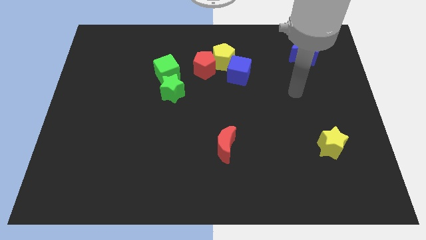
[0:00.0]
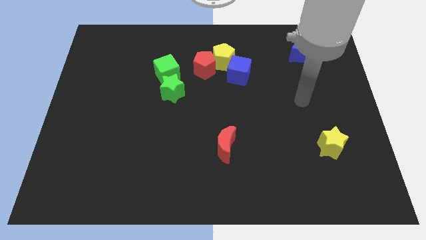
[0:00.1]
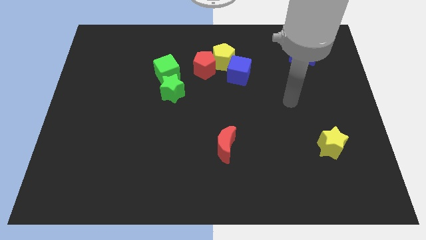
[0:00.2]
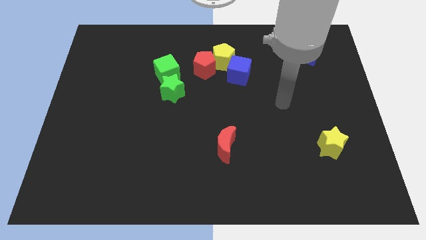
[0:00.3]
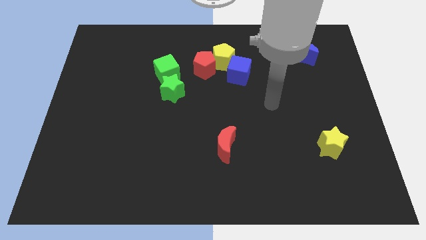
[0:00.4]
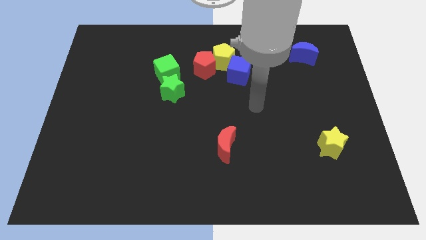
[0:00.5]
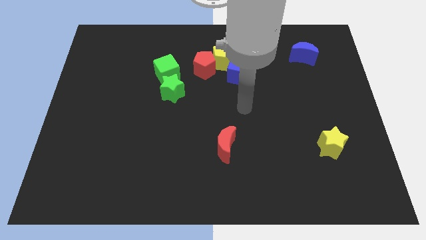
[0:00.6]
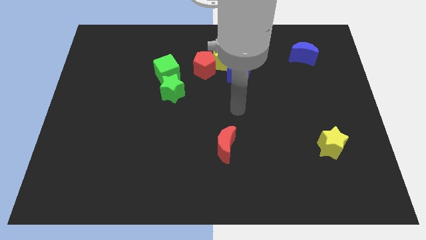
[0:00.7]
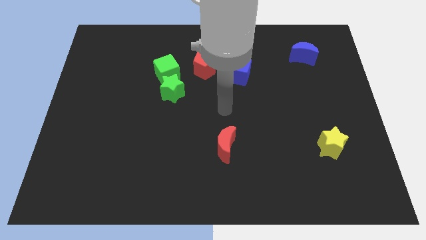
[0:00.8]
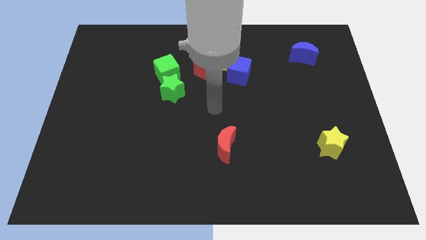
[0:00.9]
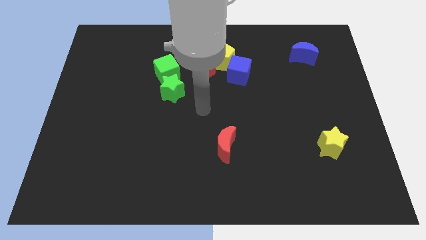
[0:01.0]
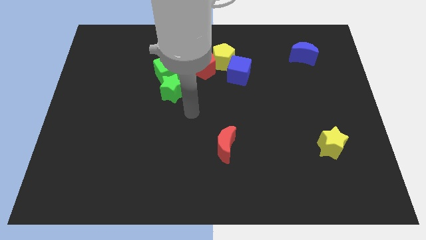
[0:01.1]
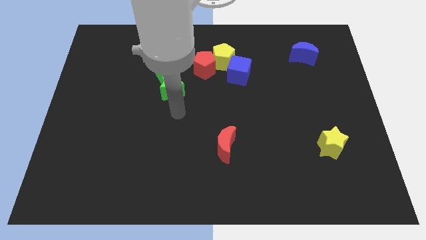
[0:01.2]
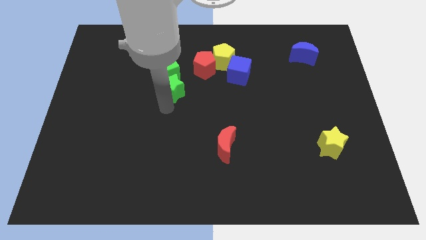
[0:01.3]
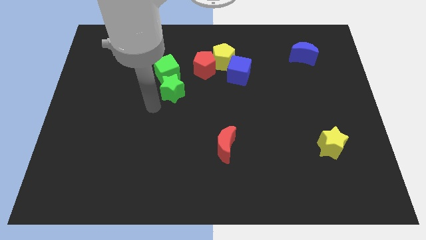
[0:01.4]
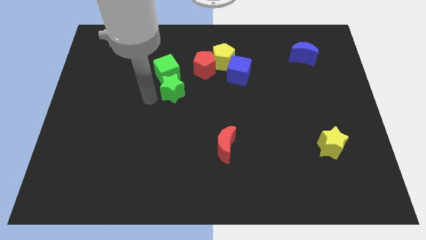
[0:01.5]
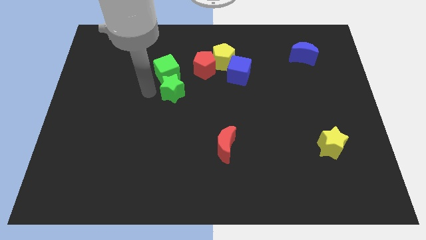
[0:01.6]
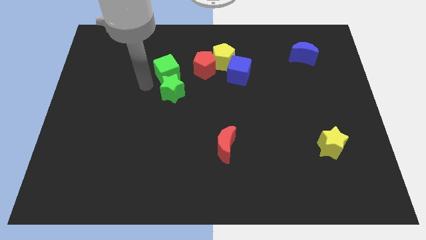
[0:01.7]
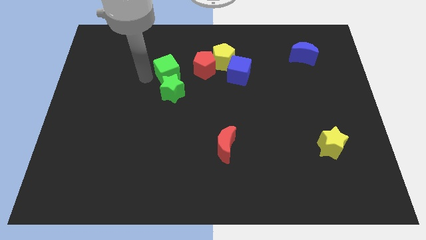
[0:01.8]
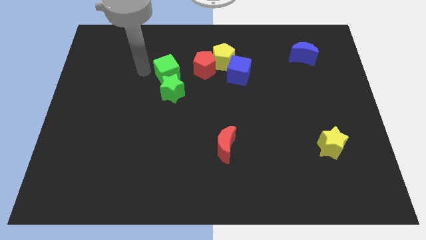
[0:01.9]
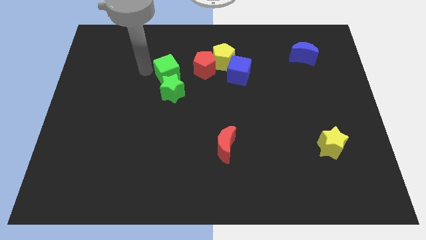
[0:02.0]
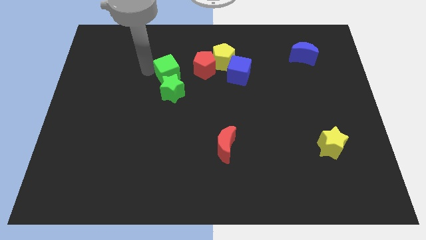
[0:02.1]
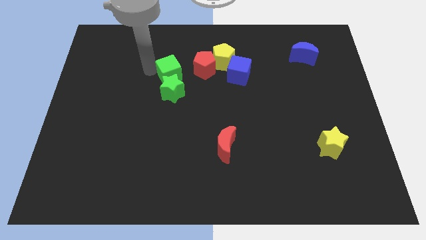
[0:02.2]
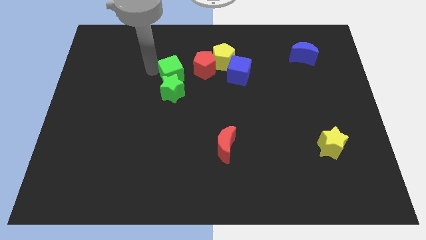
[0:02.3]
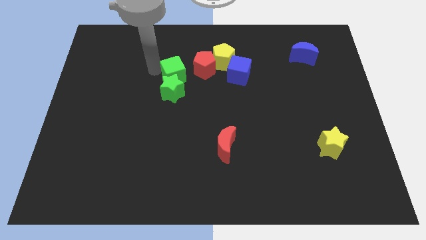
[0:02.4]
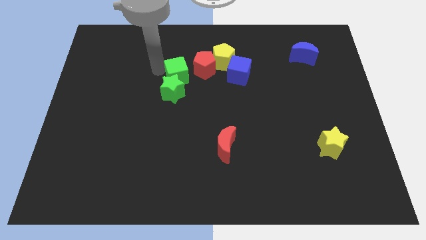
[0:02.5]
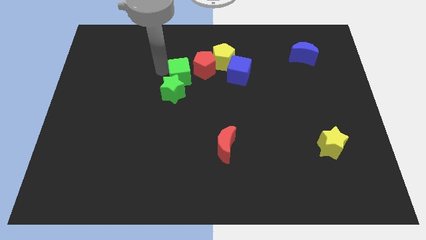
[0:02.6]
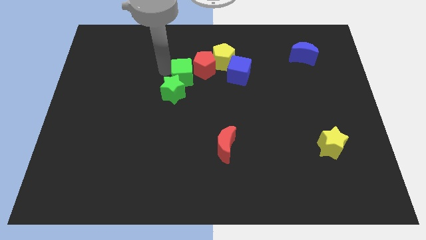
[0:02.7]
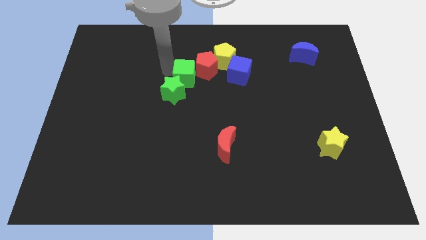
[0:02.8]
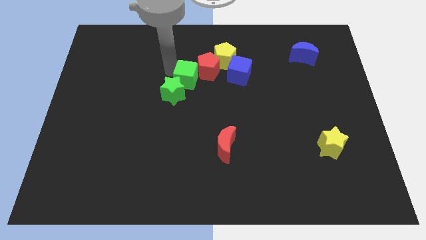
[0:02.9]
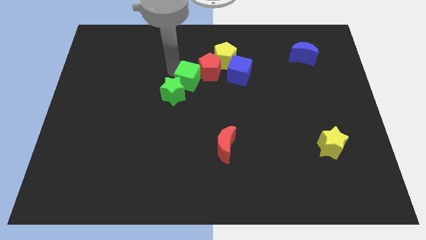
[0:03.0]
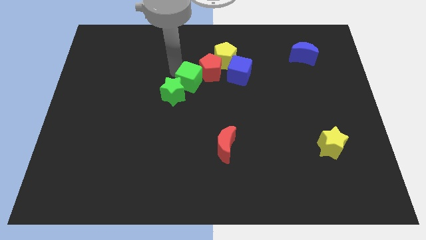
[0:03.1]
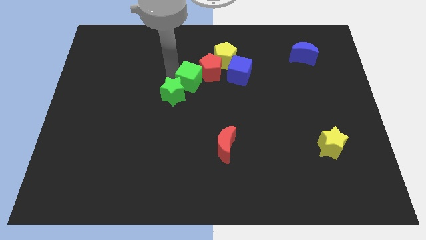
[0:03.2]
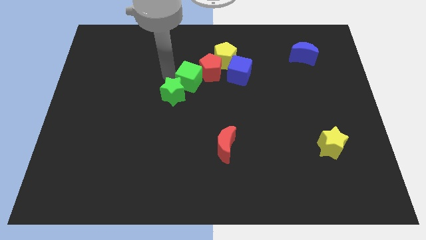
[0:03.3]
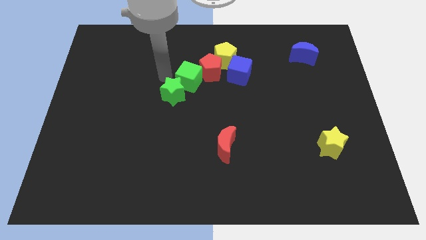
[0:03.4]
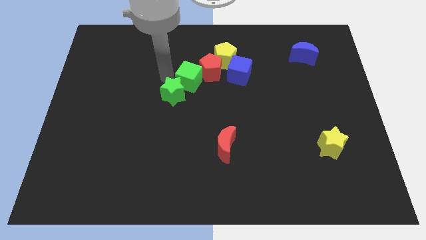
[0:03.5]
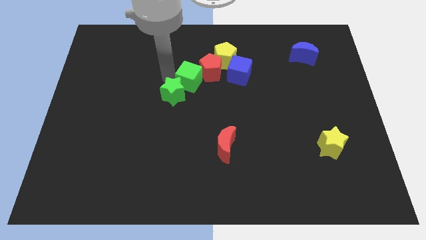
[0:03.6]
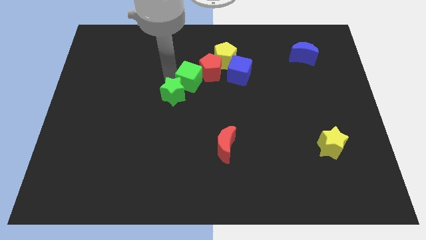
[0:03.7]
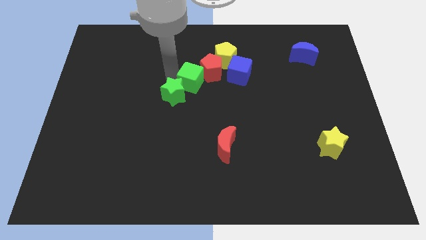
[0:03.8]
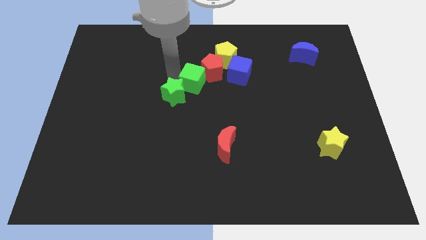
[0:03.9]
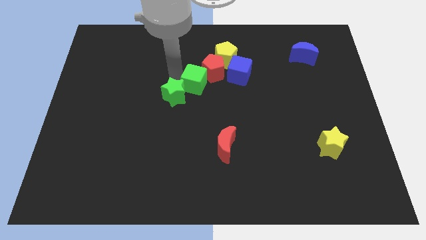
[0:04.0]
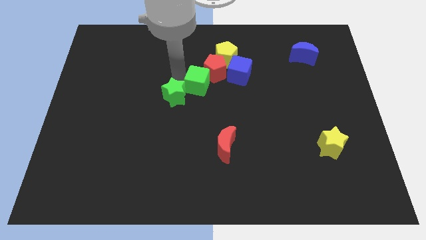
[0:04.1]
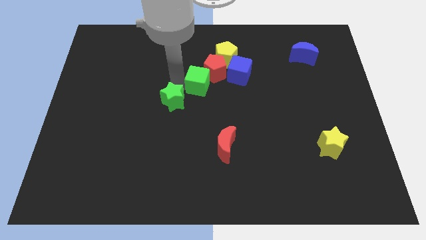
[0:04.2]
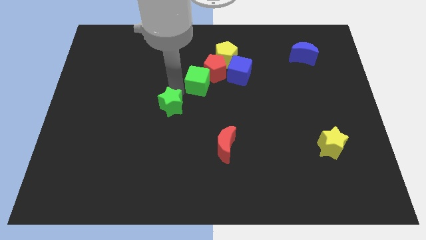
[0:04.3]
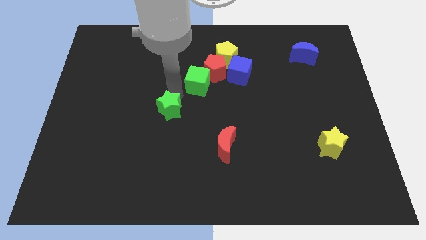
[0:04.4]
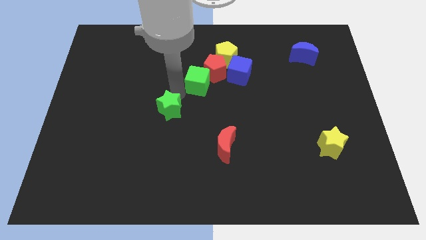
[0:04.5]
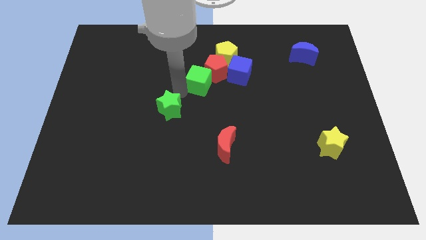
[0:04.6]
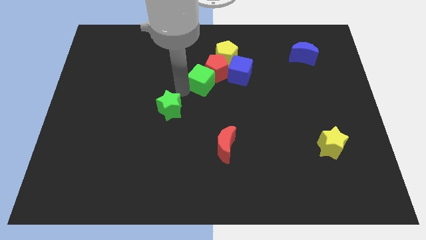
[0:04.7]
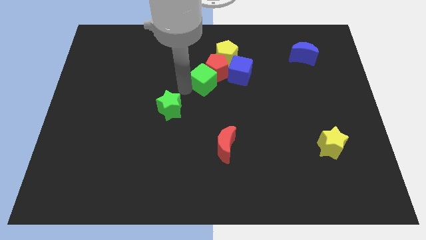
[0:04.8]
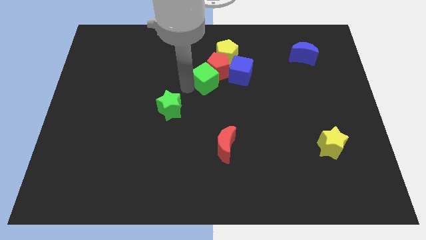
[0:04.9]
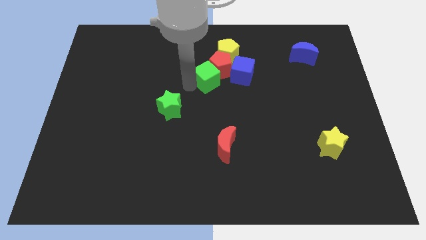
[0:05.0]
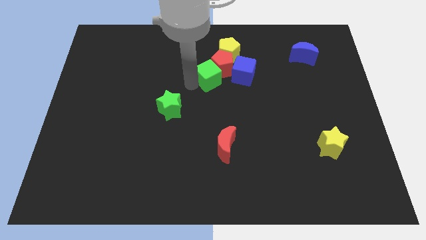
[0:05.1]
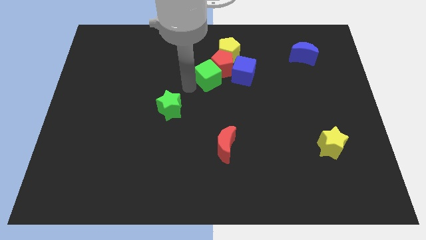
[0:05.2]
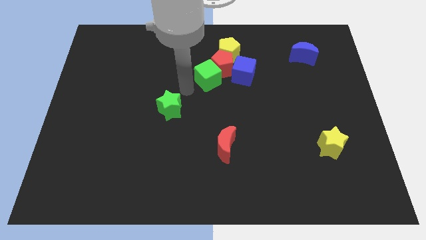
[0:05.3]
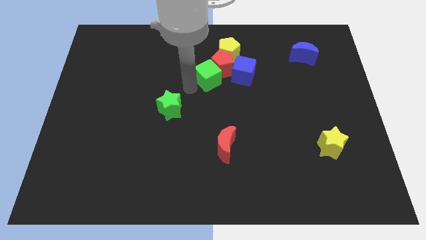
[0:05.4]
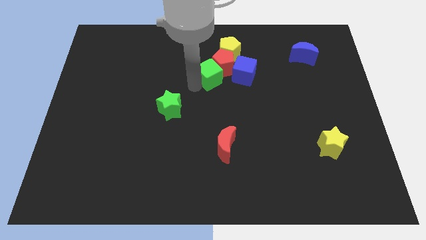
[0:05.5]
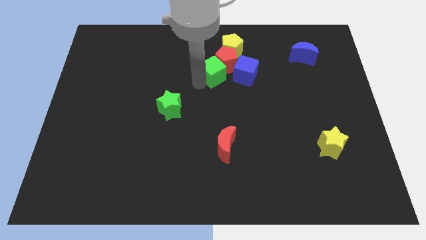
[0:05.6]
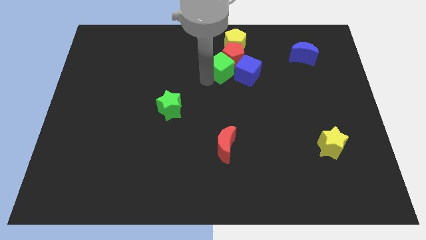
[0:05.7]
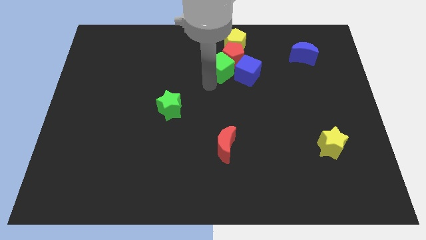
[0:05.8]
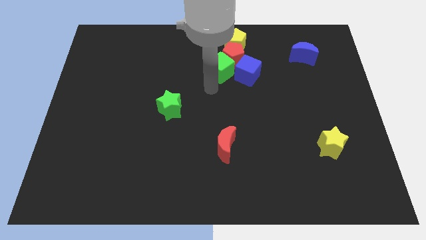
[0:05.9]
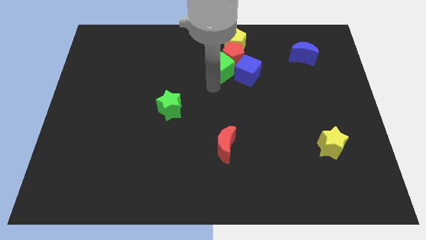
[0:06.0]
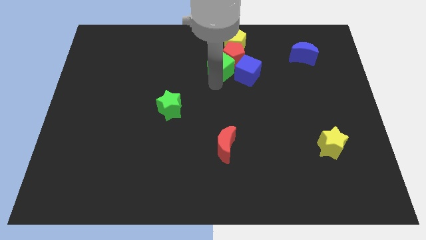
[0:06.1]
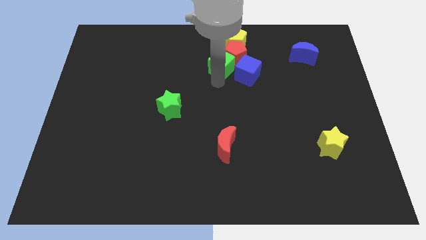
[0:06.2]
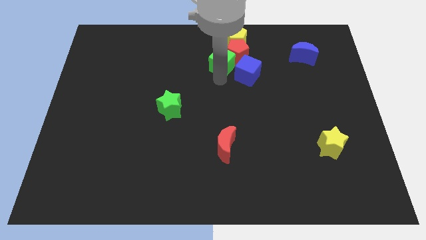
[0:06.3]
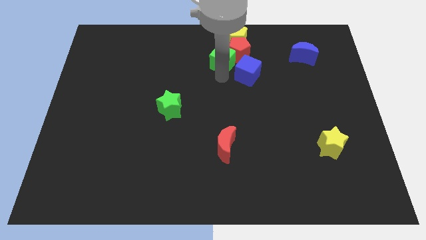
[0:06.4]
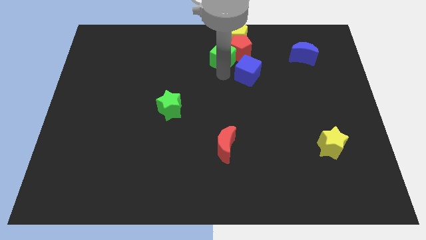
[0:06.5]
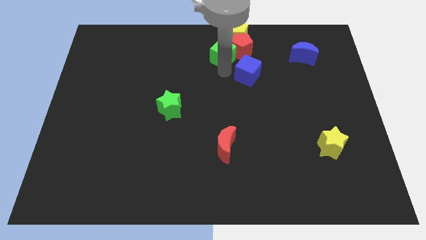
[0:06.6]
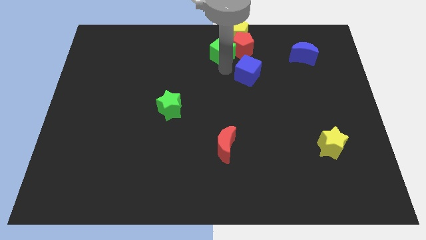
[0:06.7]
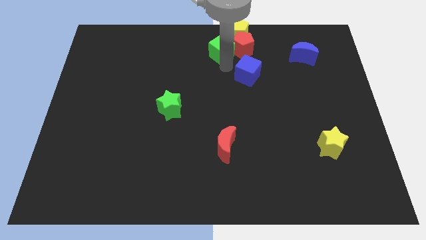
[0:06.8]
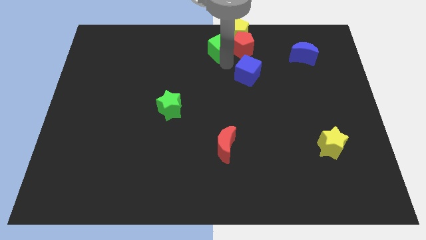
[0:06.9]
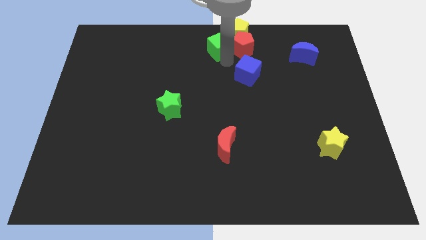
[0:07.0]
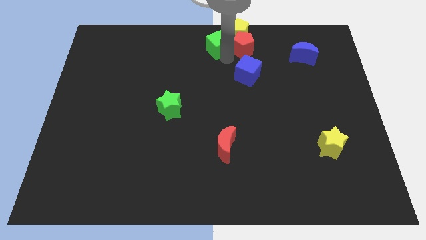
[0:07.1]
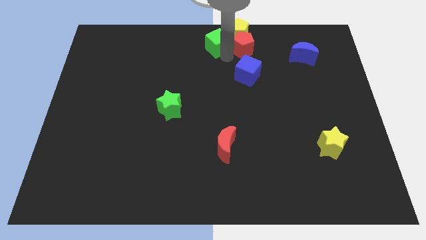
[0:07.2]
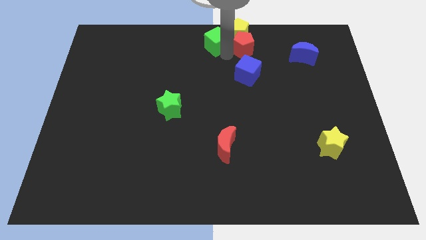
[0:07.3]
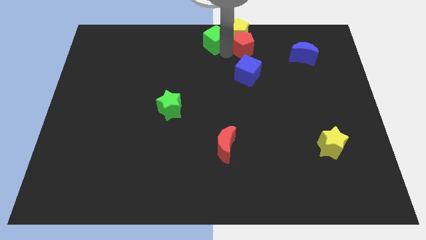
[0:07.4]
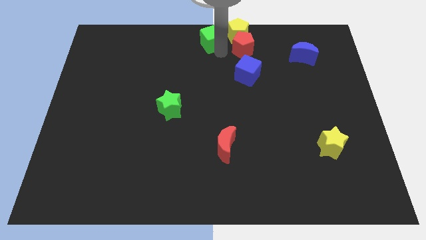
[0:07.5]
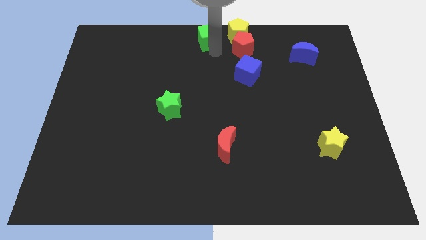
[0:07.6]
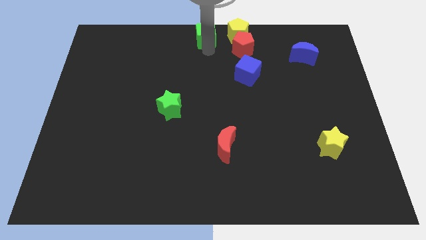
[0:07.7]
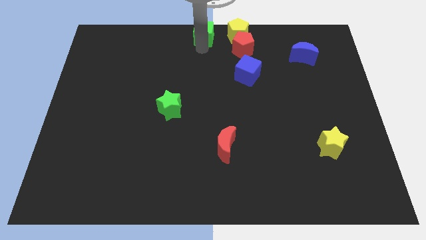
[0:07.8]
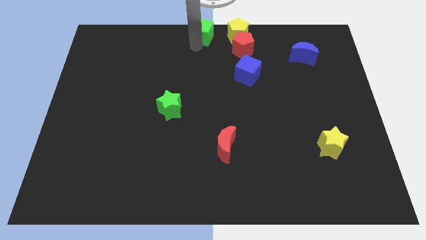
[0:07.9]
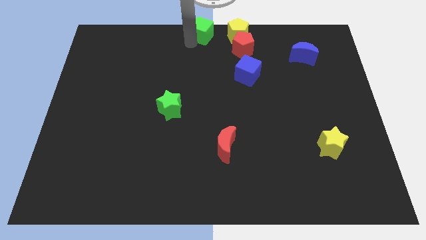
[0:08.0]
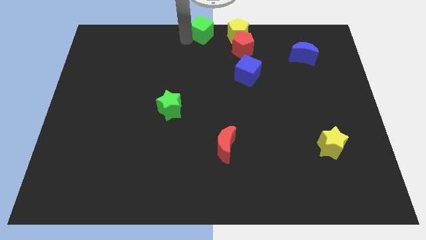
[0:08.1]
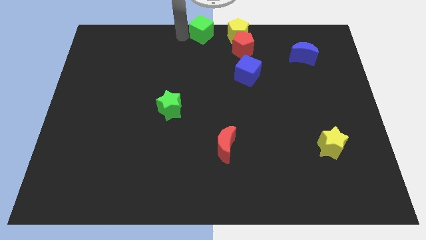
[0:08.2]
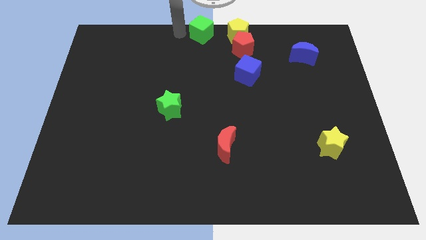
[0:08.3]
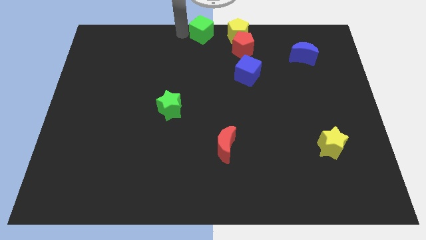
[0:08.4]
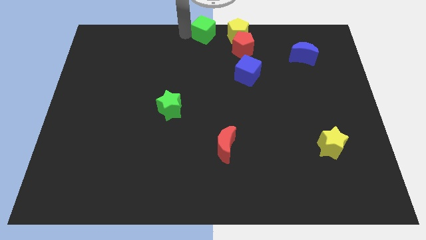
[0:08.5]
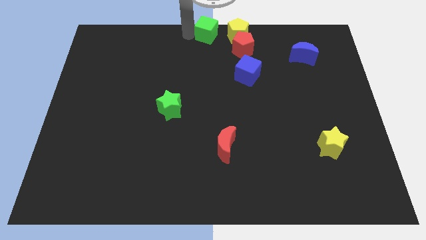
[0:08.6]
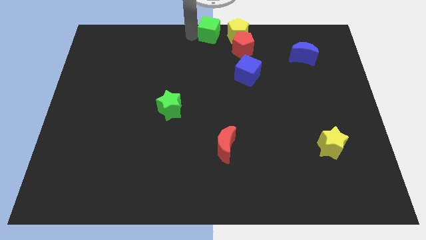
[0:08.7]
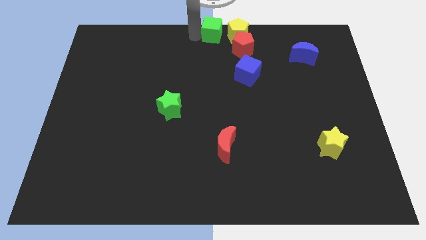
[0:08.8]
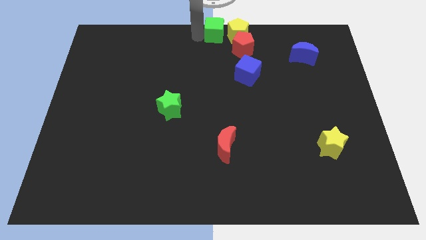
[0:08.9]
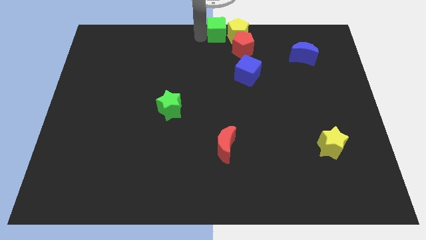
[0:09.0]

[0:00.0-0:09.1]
slide the green cube to the yellow pentagon
